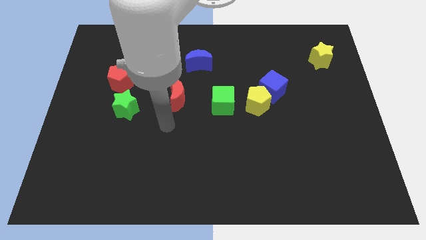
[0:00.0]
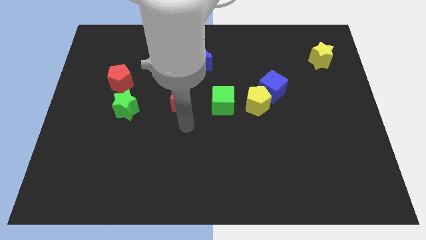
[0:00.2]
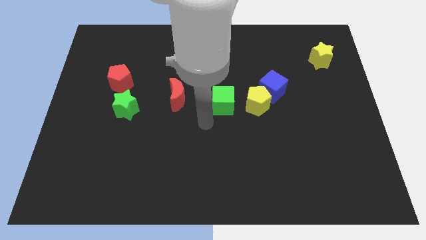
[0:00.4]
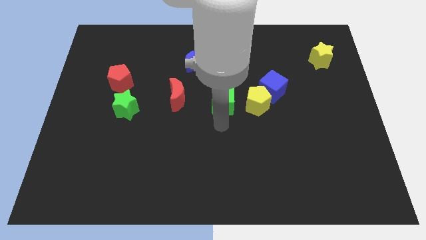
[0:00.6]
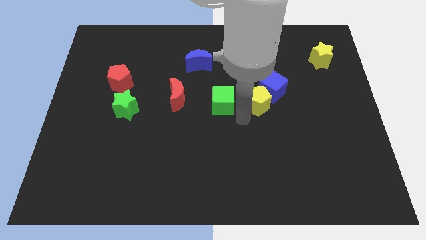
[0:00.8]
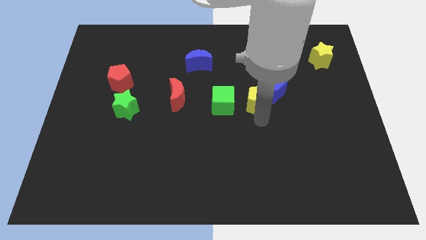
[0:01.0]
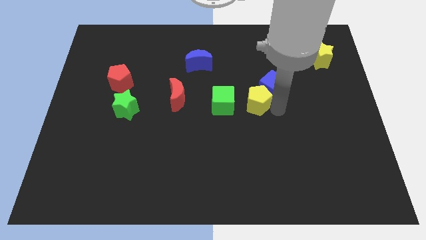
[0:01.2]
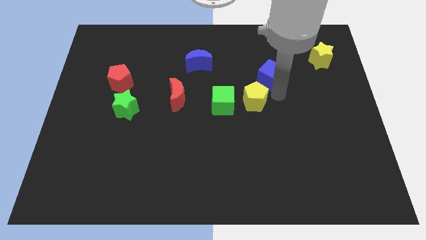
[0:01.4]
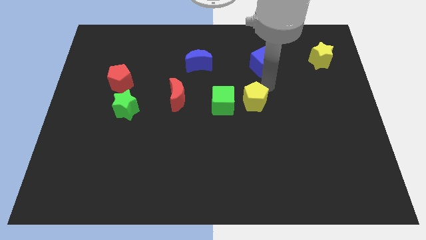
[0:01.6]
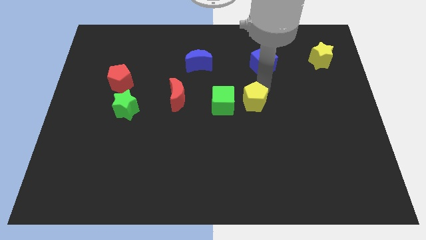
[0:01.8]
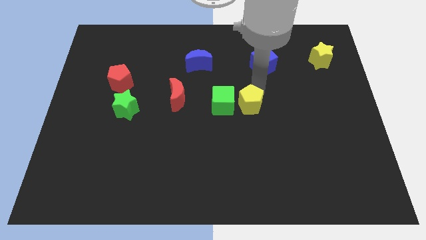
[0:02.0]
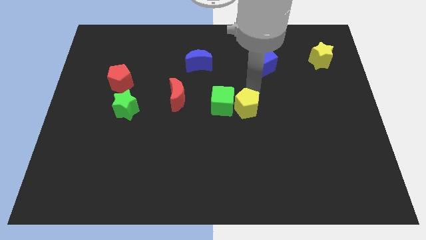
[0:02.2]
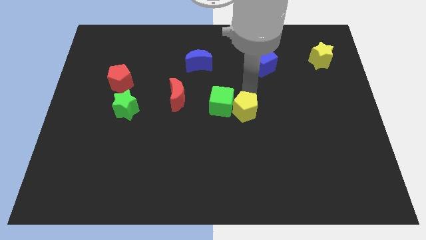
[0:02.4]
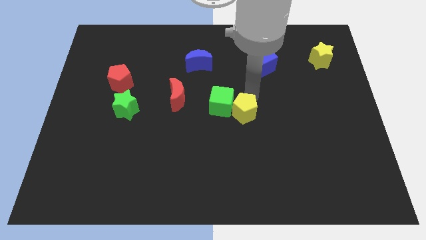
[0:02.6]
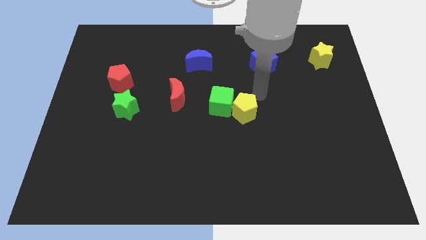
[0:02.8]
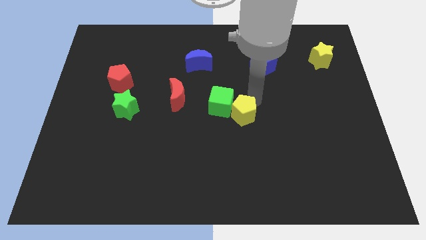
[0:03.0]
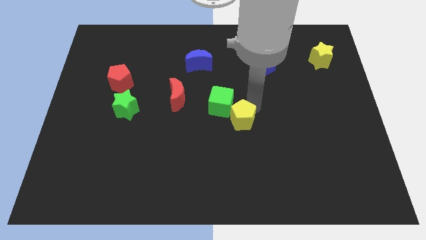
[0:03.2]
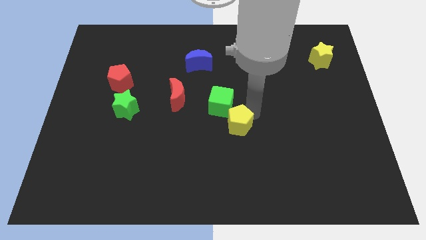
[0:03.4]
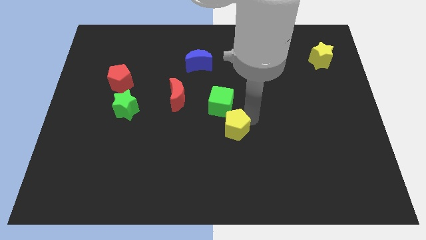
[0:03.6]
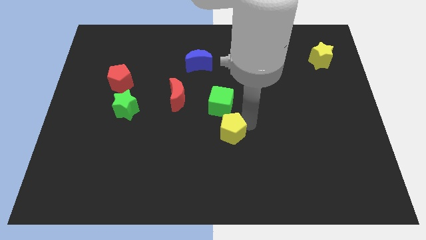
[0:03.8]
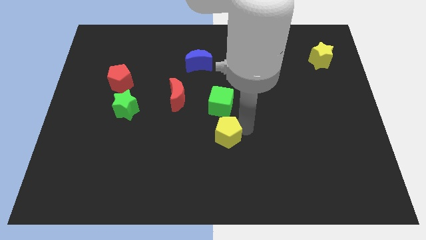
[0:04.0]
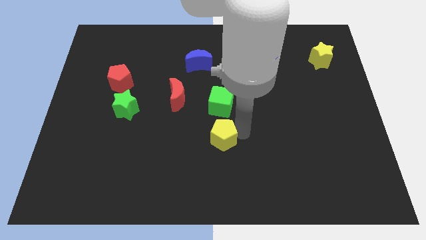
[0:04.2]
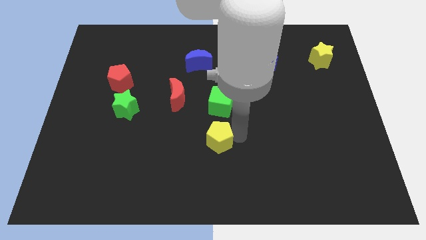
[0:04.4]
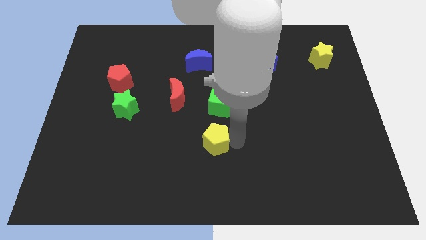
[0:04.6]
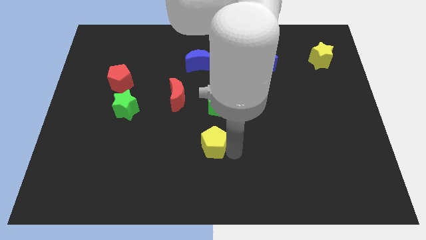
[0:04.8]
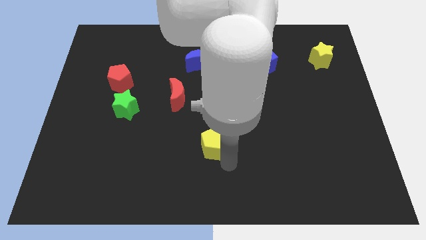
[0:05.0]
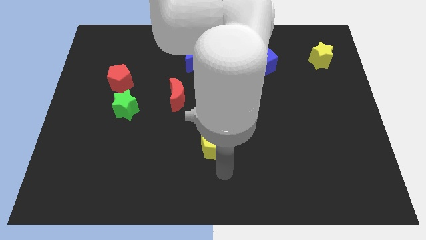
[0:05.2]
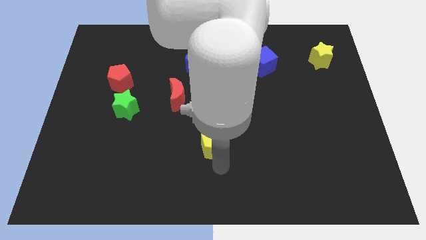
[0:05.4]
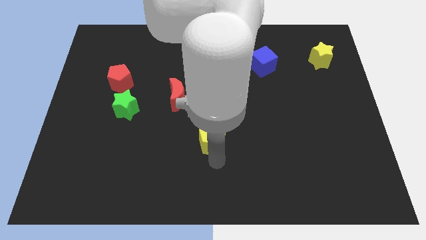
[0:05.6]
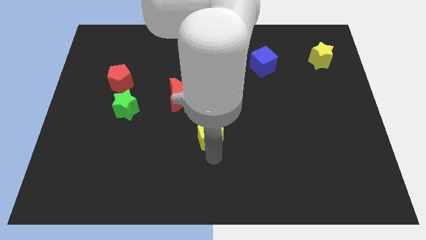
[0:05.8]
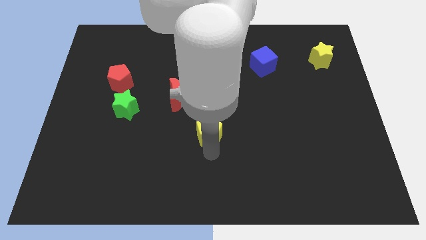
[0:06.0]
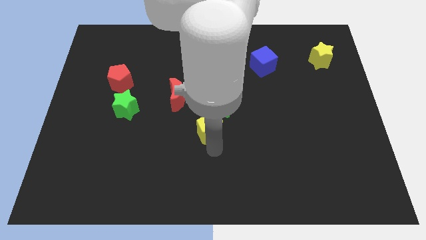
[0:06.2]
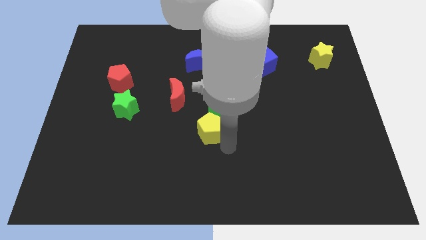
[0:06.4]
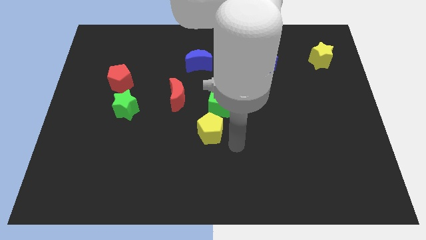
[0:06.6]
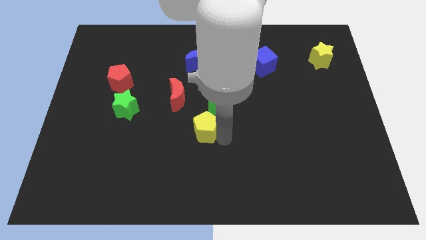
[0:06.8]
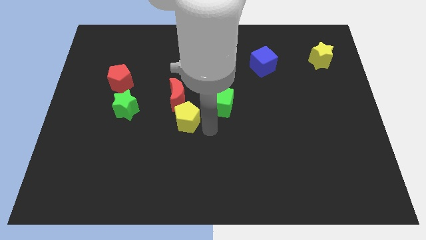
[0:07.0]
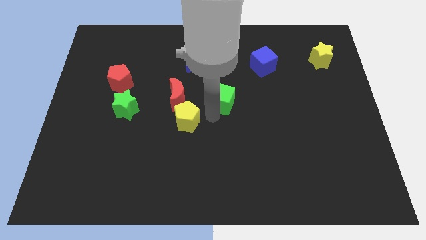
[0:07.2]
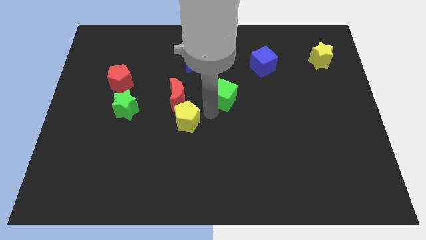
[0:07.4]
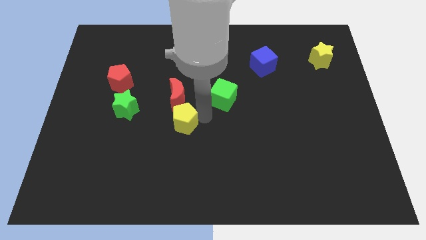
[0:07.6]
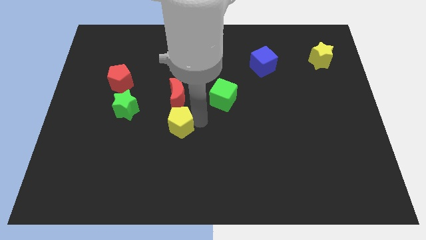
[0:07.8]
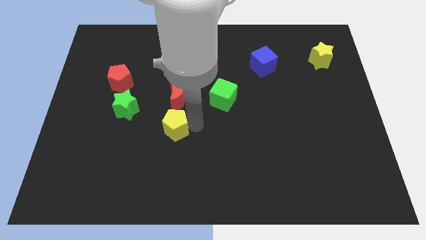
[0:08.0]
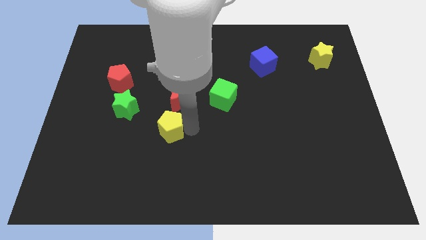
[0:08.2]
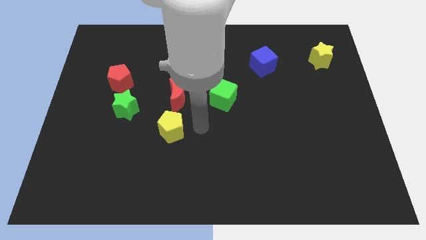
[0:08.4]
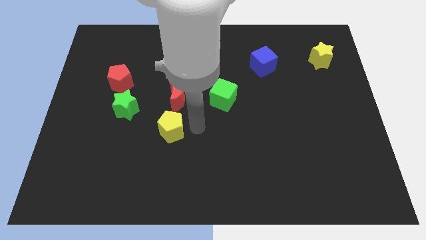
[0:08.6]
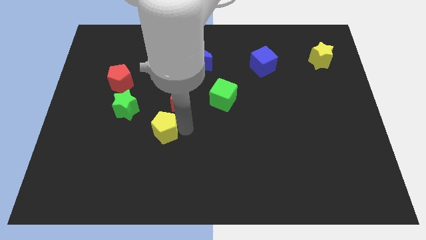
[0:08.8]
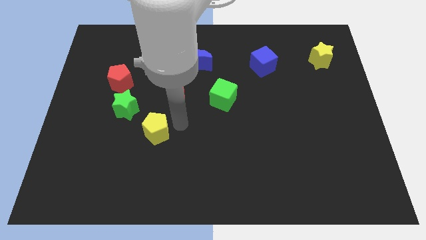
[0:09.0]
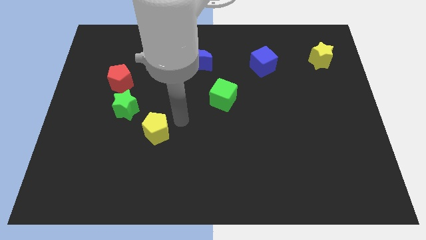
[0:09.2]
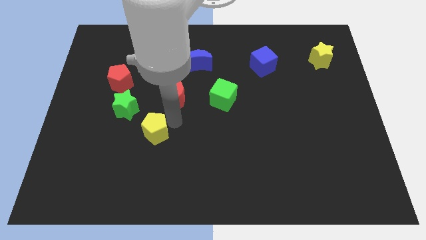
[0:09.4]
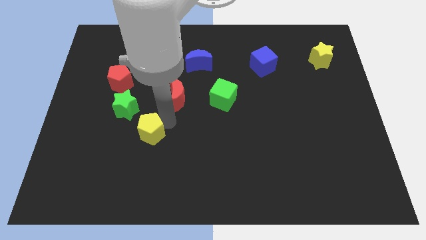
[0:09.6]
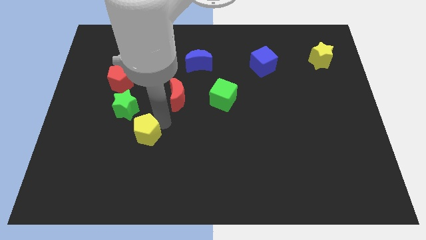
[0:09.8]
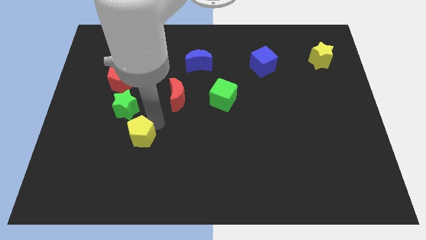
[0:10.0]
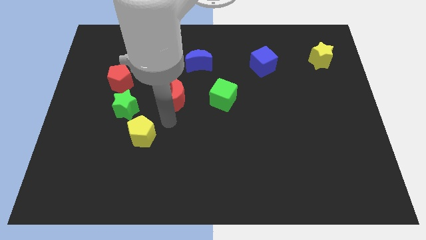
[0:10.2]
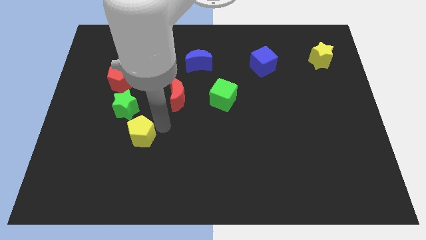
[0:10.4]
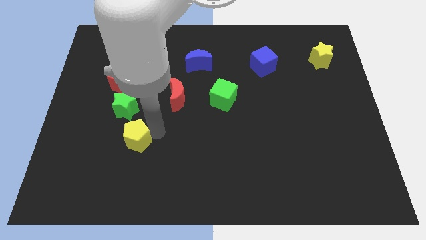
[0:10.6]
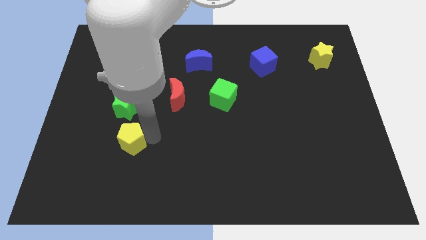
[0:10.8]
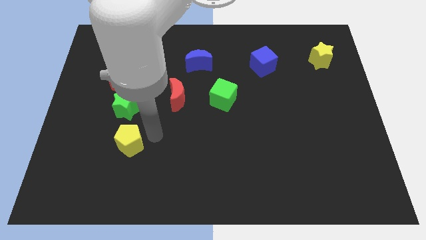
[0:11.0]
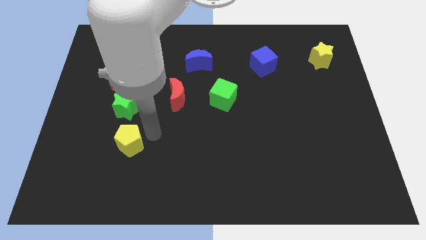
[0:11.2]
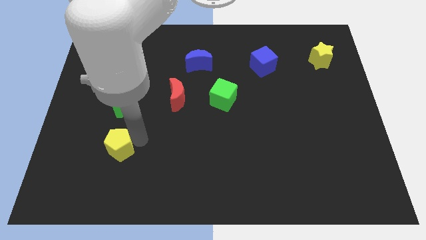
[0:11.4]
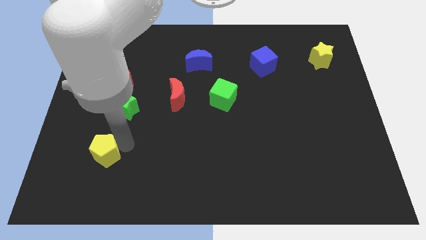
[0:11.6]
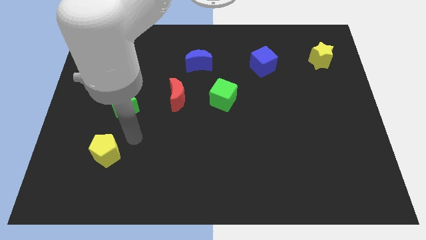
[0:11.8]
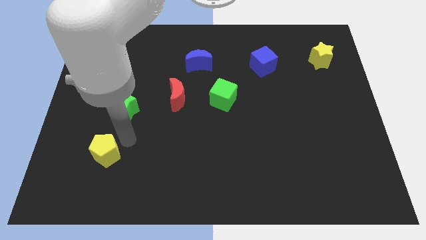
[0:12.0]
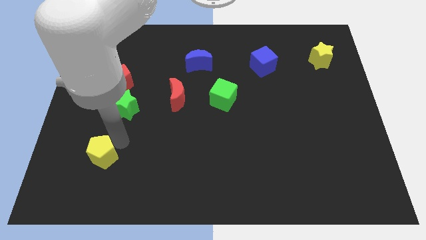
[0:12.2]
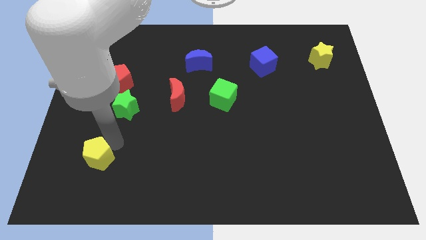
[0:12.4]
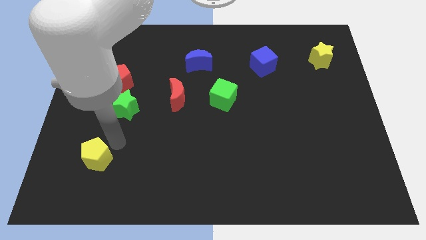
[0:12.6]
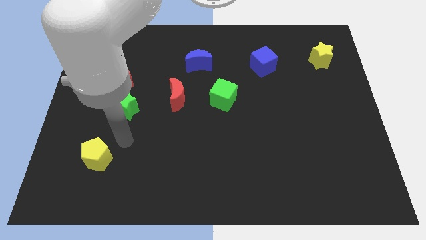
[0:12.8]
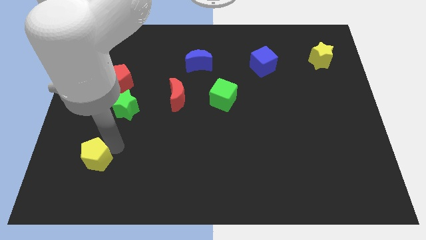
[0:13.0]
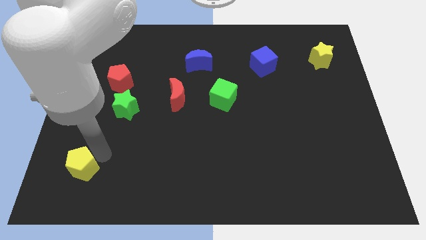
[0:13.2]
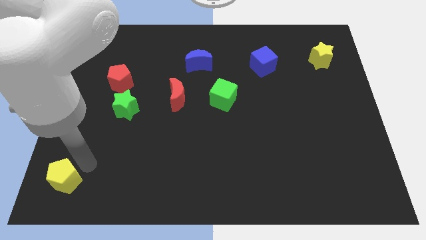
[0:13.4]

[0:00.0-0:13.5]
move the yellow pentagon to the lower left corner
